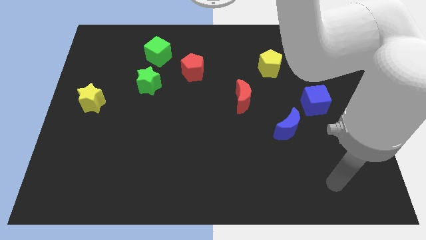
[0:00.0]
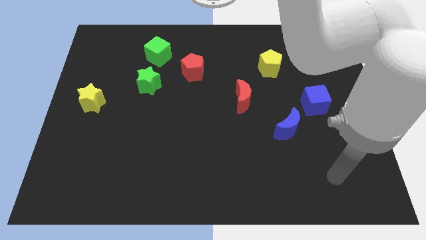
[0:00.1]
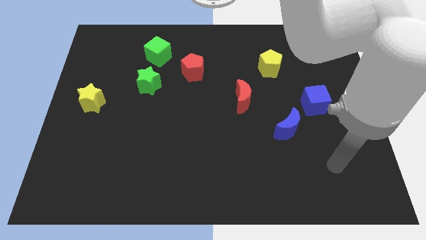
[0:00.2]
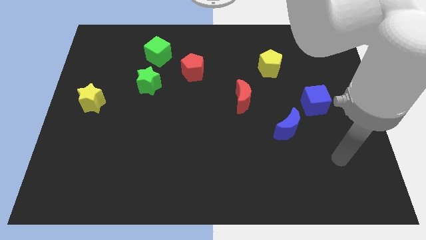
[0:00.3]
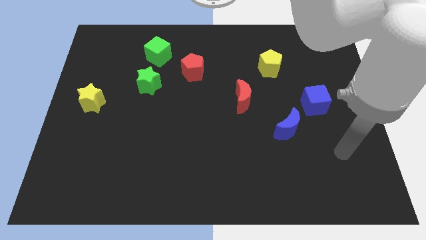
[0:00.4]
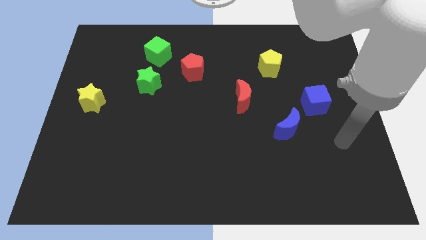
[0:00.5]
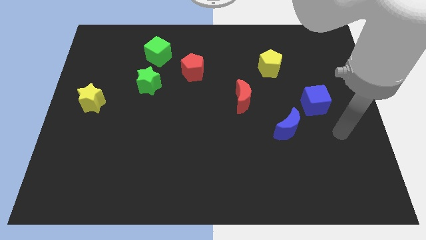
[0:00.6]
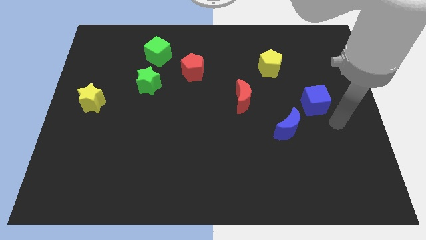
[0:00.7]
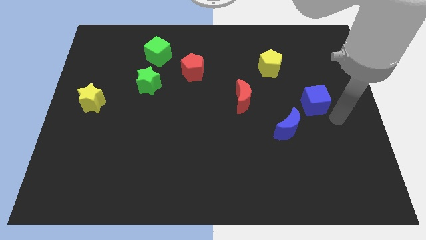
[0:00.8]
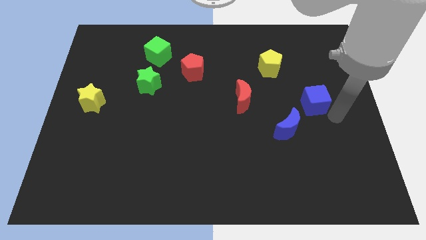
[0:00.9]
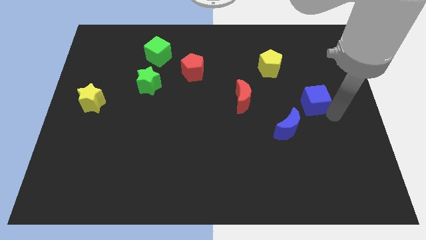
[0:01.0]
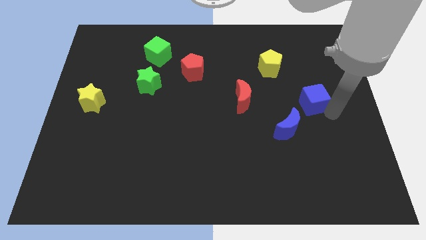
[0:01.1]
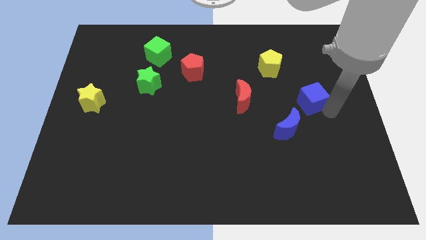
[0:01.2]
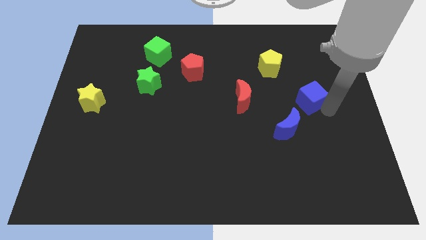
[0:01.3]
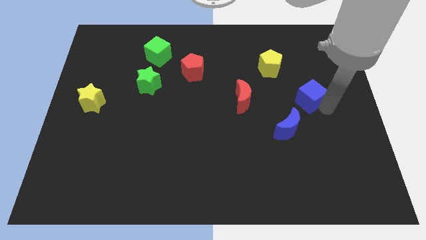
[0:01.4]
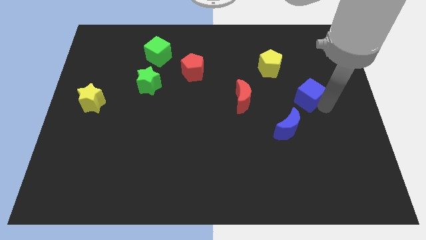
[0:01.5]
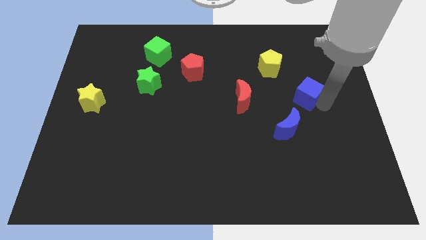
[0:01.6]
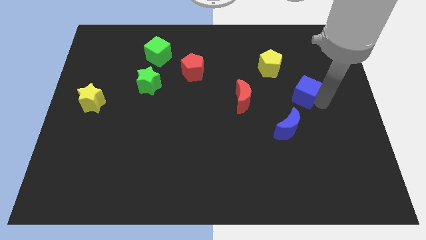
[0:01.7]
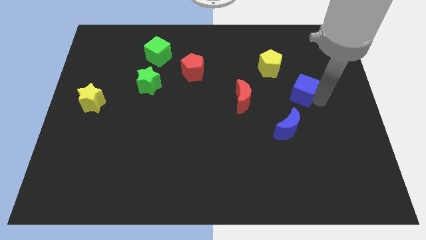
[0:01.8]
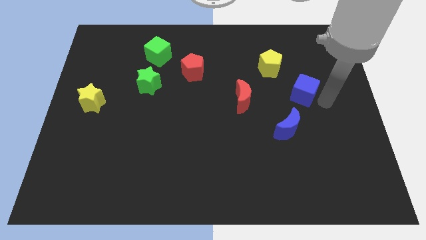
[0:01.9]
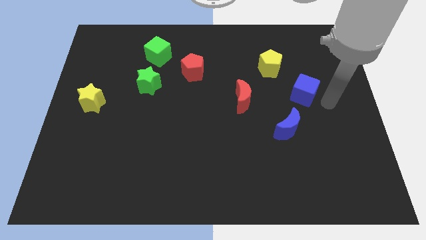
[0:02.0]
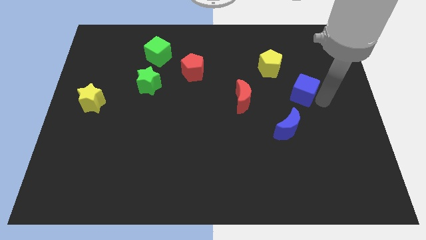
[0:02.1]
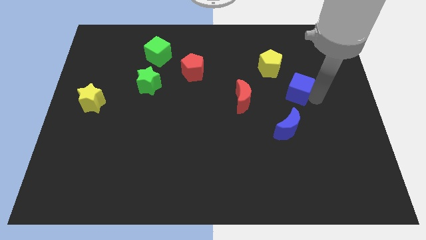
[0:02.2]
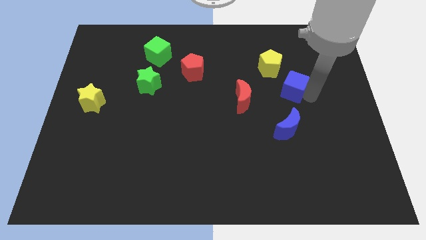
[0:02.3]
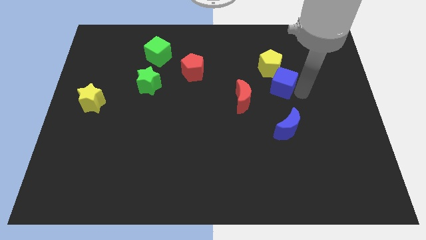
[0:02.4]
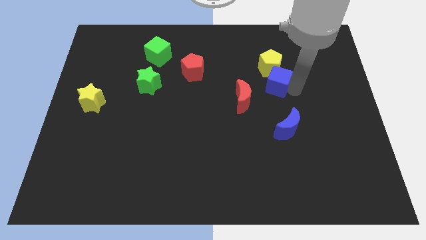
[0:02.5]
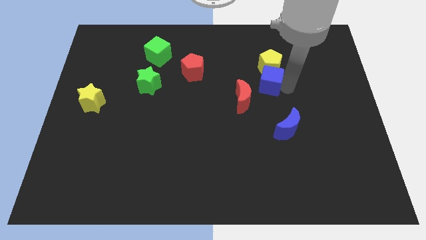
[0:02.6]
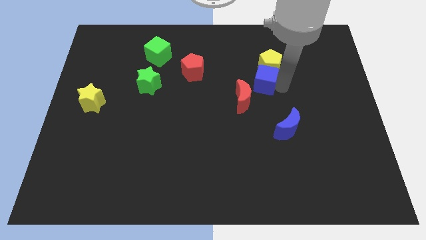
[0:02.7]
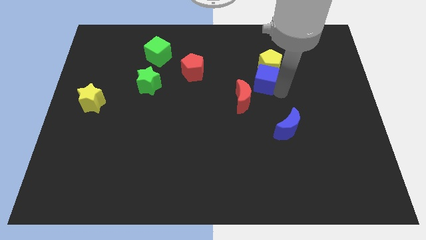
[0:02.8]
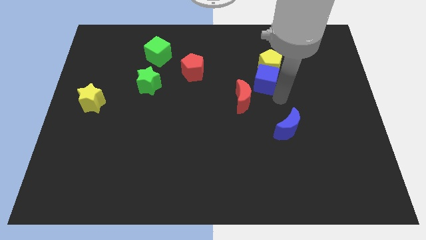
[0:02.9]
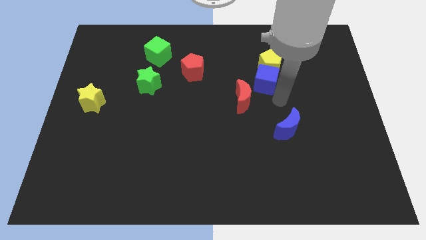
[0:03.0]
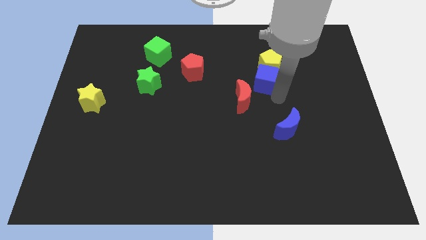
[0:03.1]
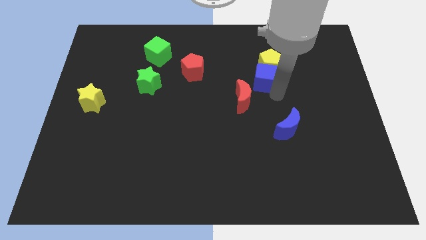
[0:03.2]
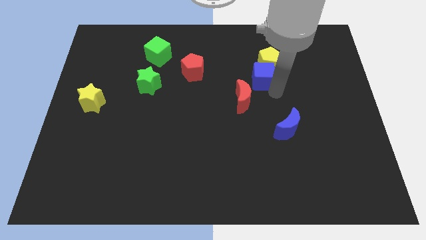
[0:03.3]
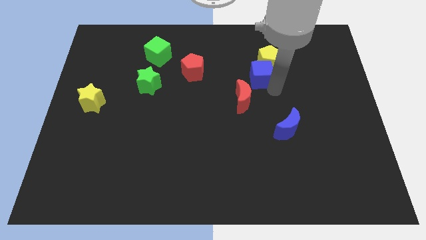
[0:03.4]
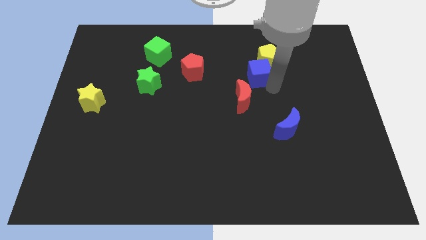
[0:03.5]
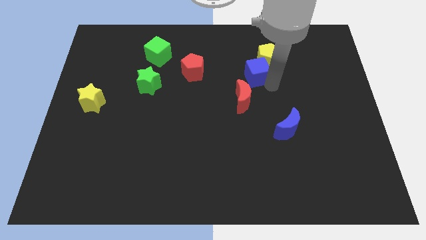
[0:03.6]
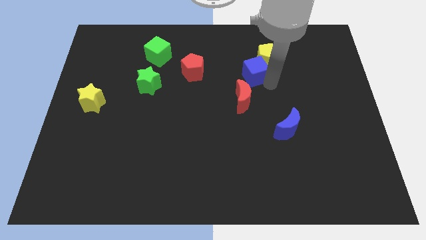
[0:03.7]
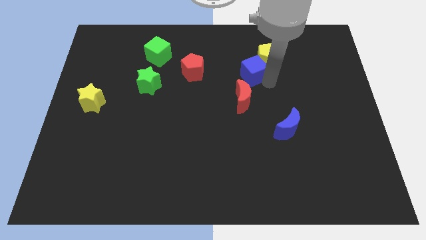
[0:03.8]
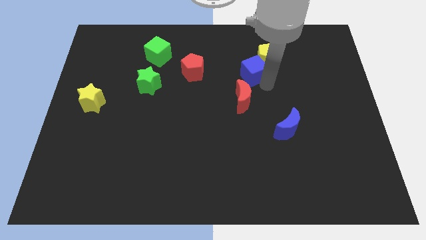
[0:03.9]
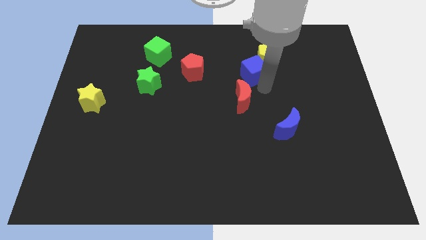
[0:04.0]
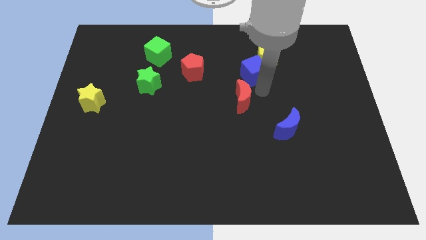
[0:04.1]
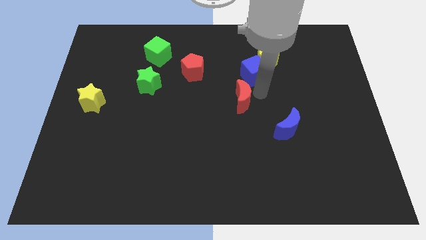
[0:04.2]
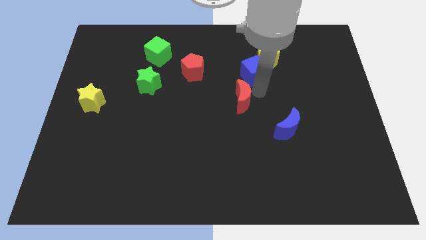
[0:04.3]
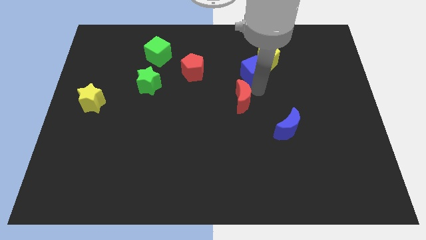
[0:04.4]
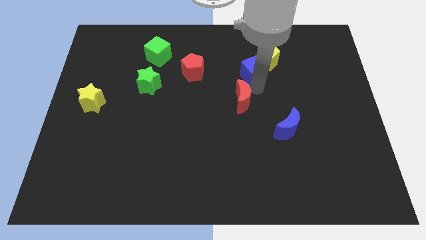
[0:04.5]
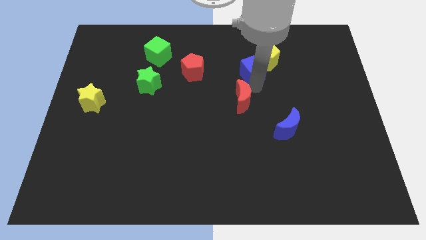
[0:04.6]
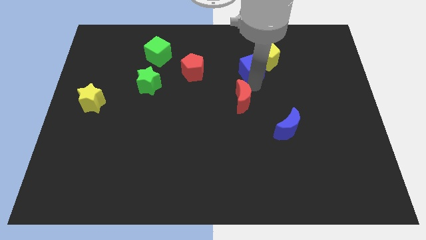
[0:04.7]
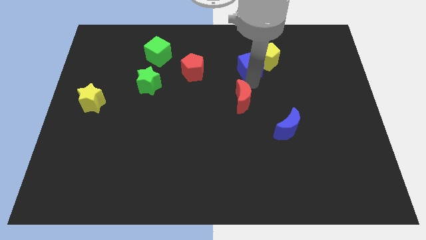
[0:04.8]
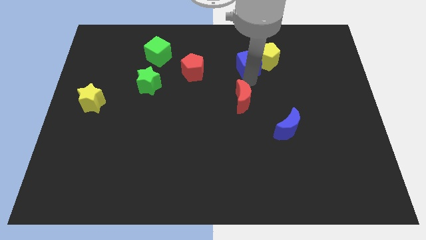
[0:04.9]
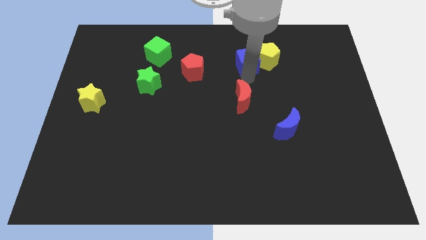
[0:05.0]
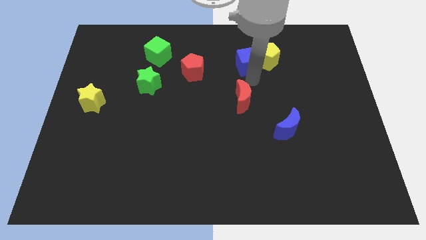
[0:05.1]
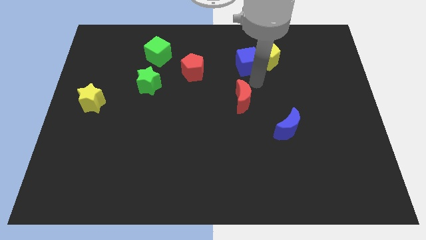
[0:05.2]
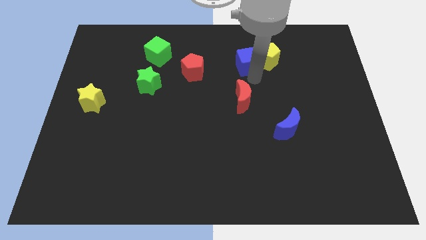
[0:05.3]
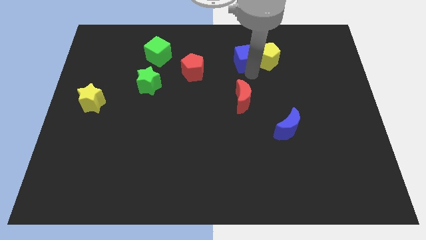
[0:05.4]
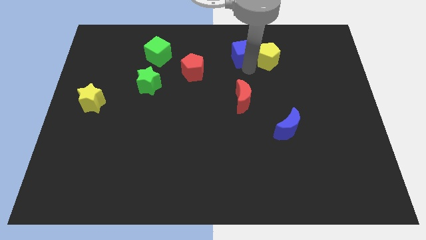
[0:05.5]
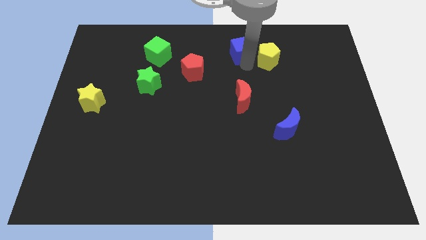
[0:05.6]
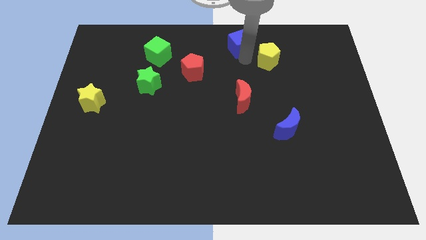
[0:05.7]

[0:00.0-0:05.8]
put the blue cube to the top

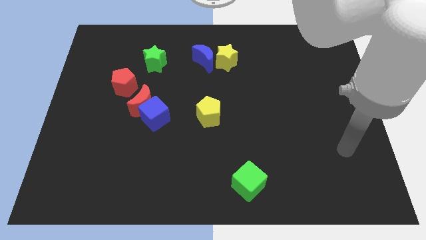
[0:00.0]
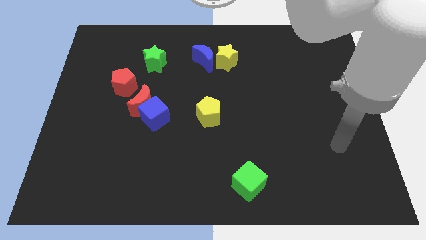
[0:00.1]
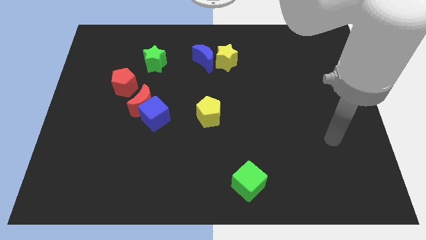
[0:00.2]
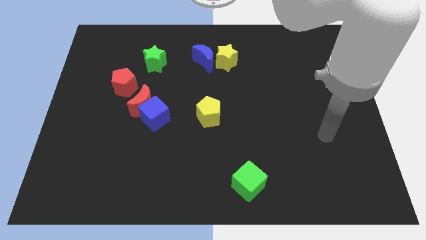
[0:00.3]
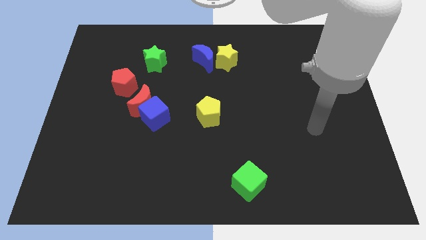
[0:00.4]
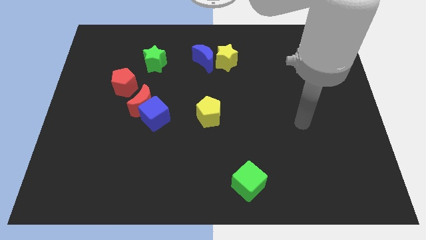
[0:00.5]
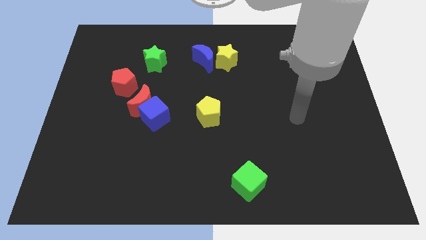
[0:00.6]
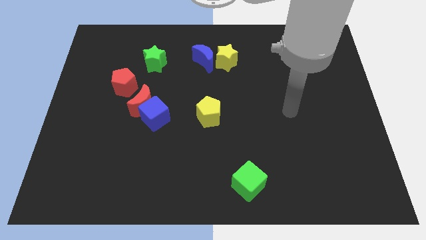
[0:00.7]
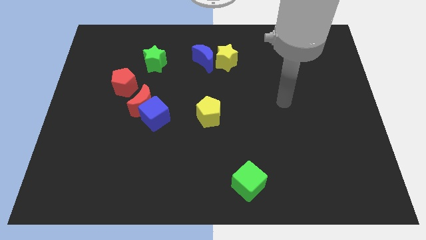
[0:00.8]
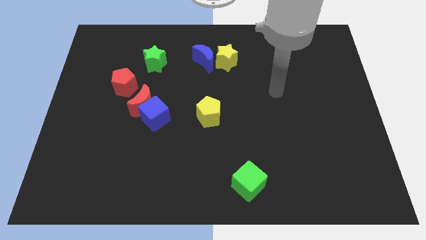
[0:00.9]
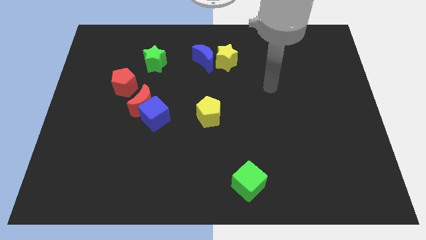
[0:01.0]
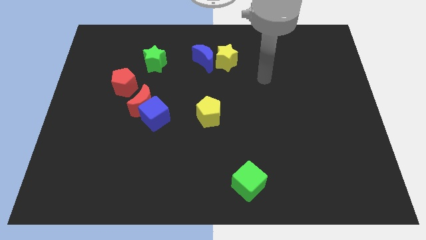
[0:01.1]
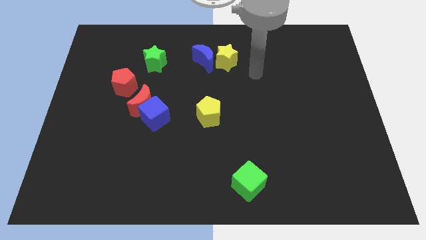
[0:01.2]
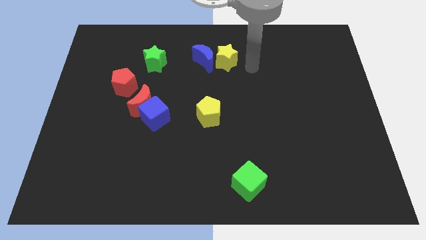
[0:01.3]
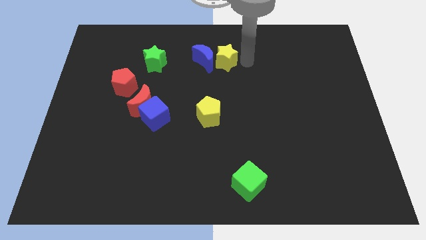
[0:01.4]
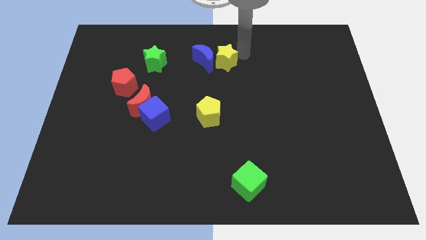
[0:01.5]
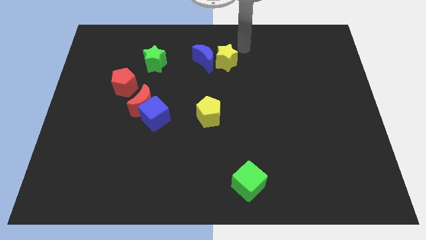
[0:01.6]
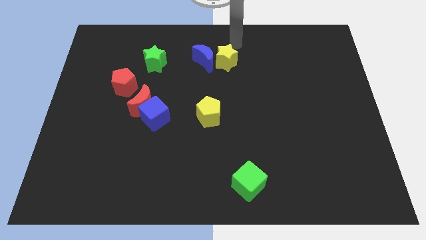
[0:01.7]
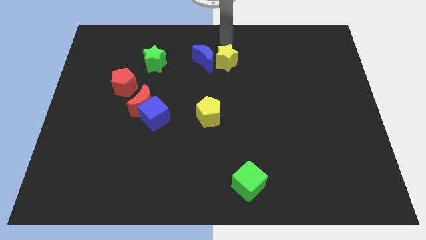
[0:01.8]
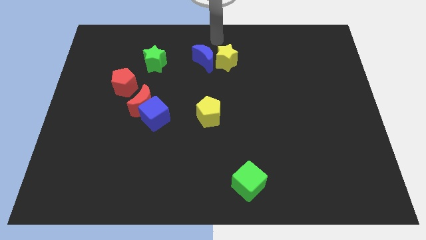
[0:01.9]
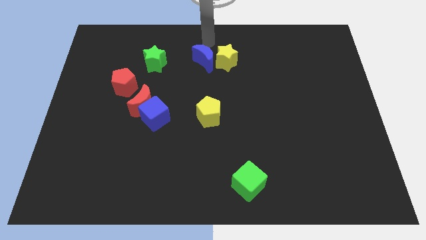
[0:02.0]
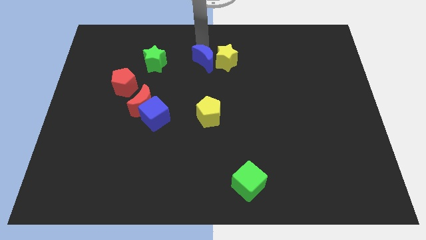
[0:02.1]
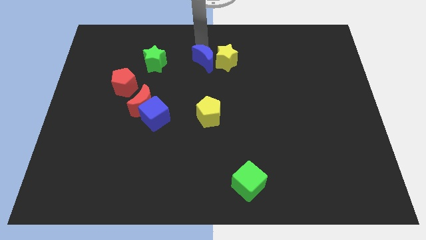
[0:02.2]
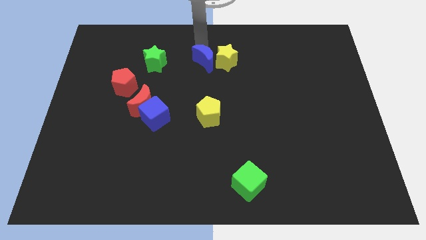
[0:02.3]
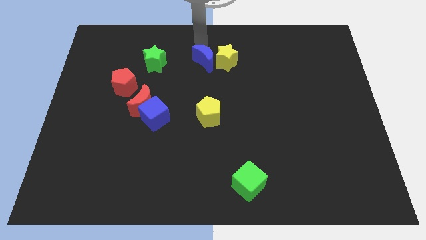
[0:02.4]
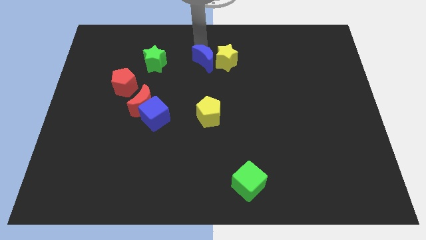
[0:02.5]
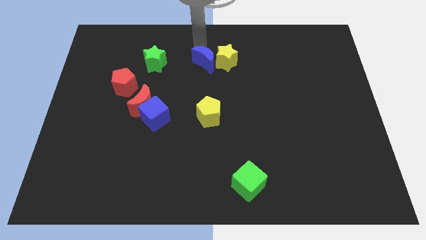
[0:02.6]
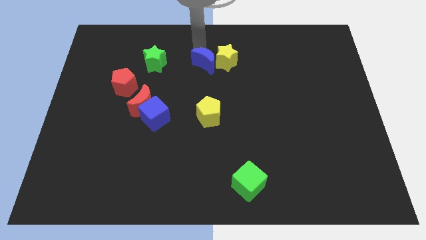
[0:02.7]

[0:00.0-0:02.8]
move the blue moon to the center
